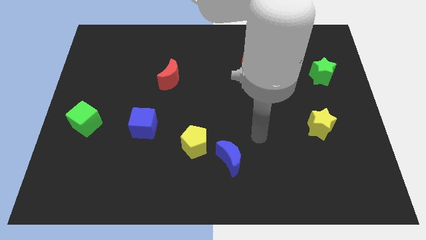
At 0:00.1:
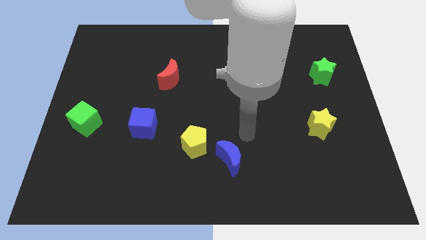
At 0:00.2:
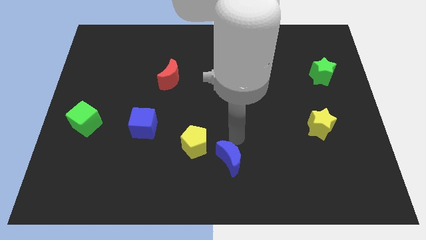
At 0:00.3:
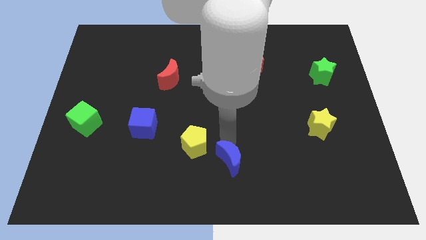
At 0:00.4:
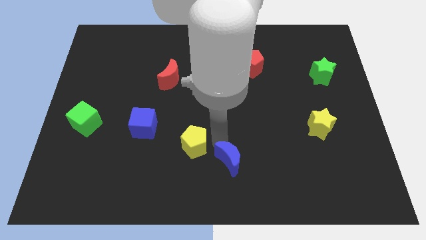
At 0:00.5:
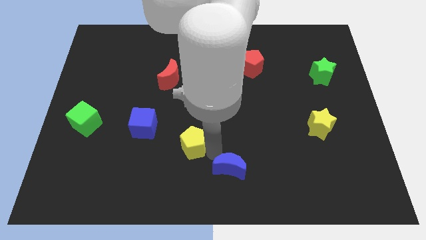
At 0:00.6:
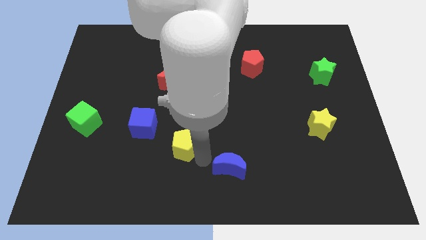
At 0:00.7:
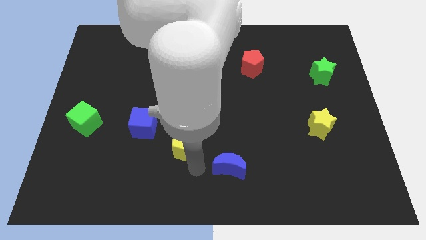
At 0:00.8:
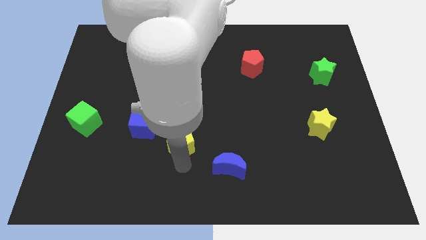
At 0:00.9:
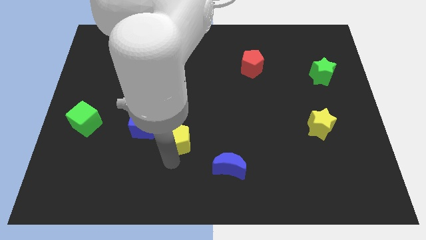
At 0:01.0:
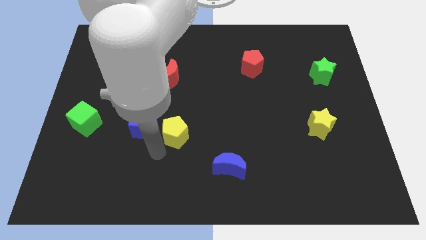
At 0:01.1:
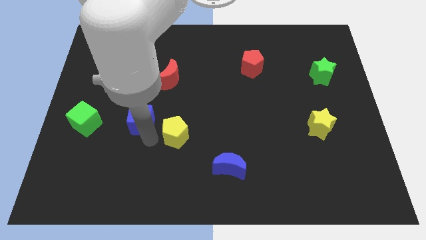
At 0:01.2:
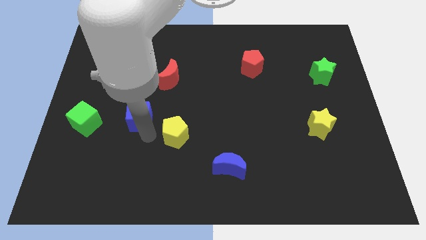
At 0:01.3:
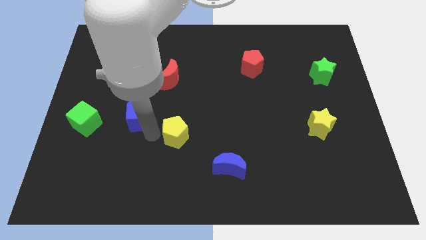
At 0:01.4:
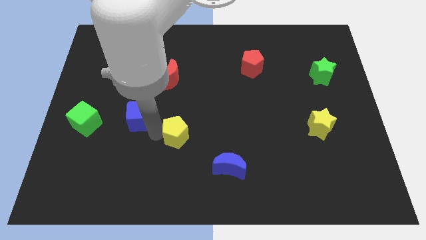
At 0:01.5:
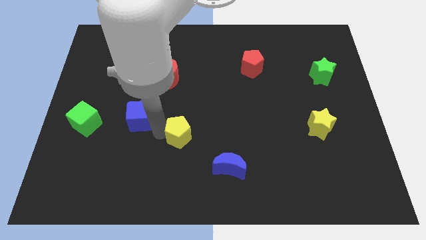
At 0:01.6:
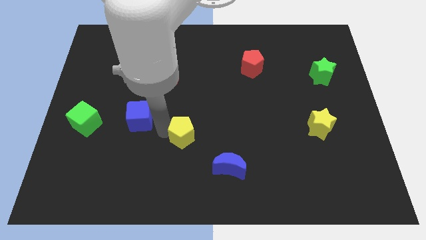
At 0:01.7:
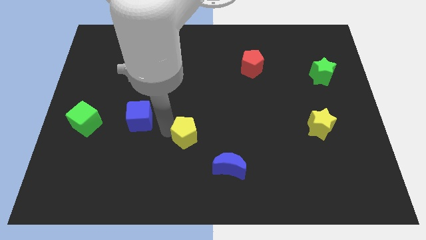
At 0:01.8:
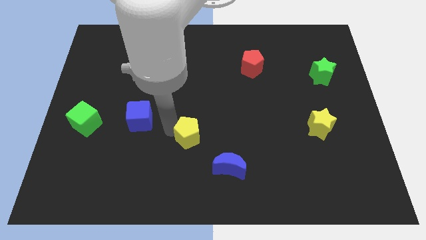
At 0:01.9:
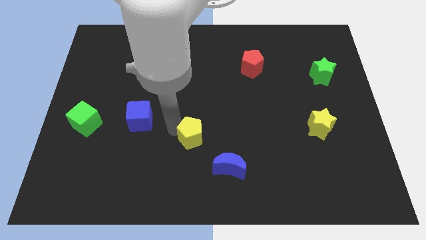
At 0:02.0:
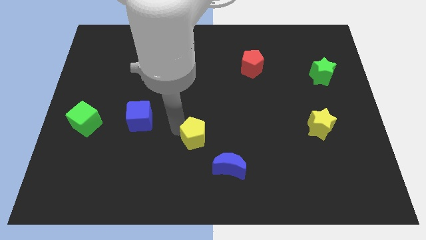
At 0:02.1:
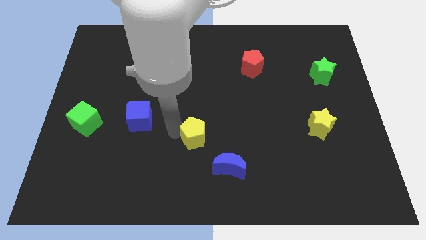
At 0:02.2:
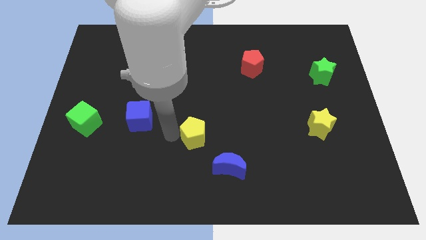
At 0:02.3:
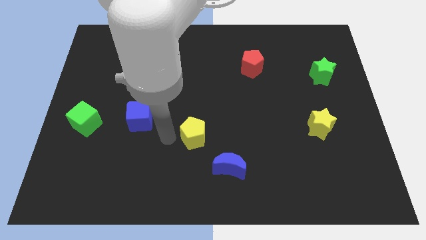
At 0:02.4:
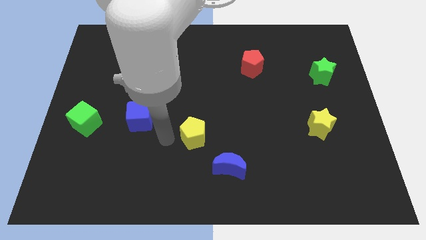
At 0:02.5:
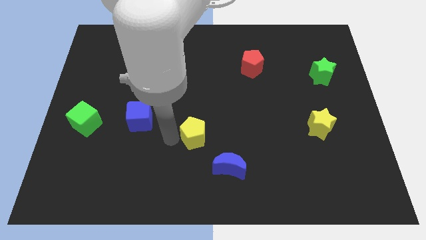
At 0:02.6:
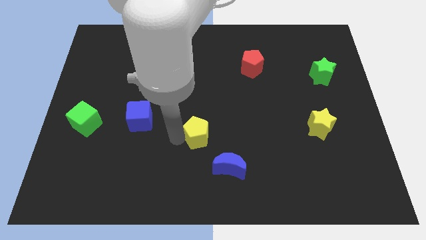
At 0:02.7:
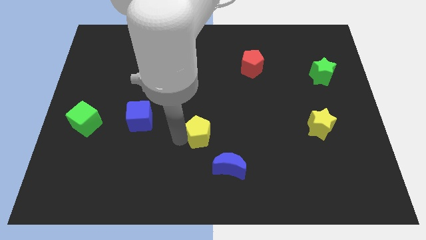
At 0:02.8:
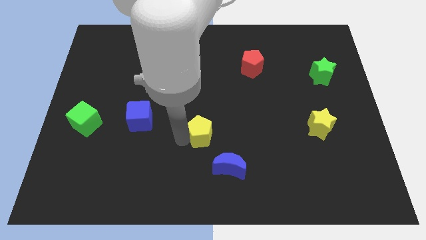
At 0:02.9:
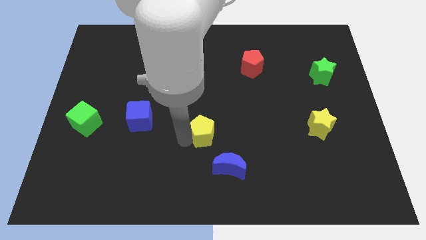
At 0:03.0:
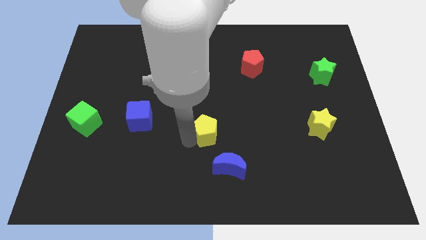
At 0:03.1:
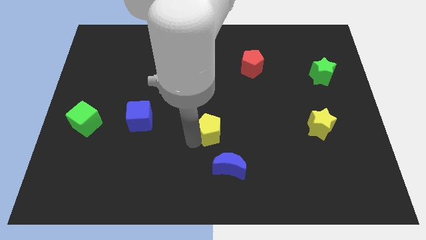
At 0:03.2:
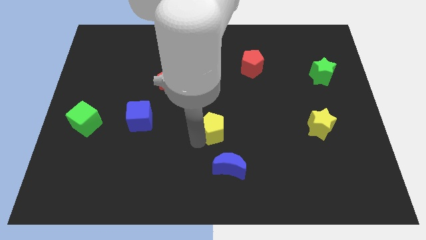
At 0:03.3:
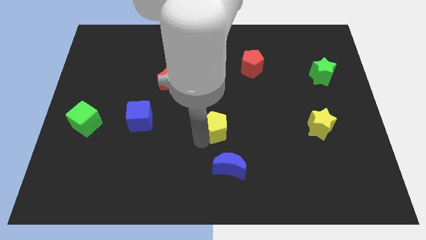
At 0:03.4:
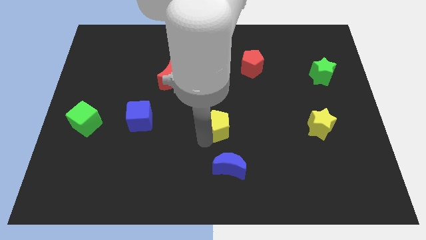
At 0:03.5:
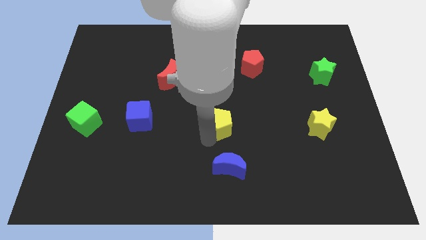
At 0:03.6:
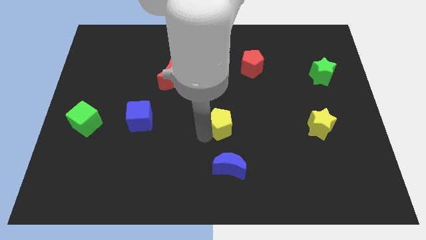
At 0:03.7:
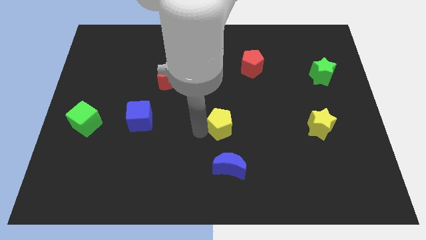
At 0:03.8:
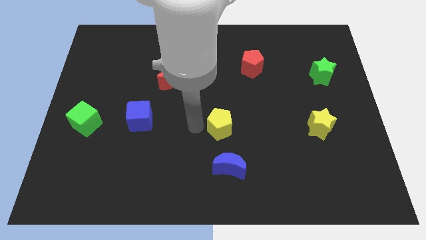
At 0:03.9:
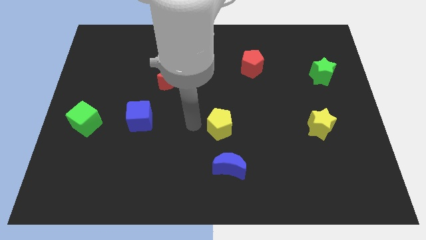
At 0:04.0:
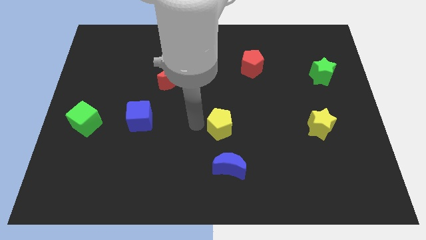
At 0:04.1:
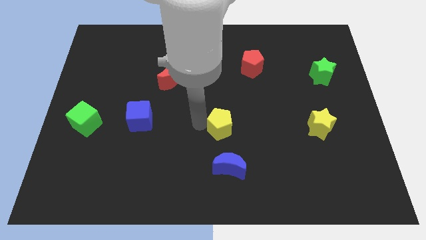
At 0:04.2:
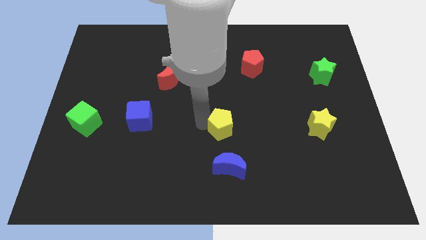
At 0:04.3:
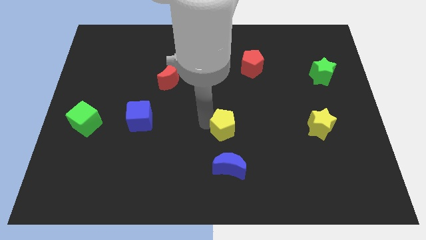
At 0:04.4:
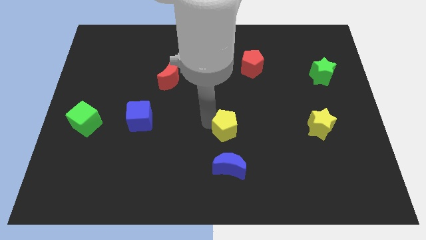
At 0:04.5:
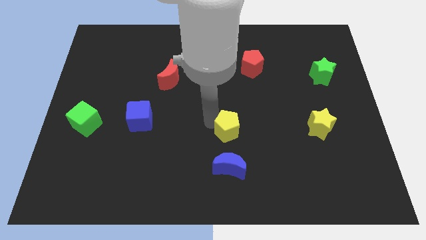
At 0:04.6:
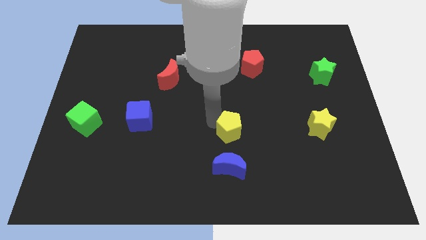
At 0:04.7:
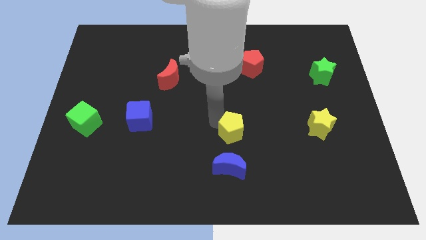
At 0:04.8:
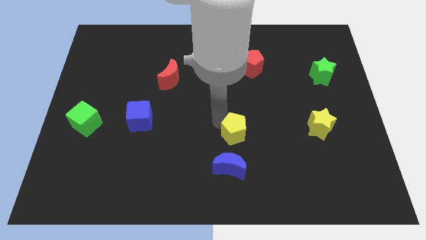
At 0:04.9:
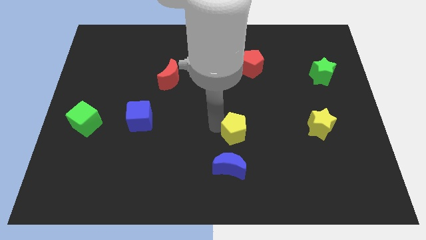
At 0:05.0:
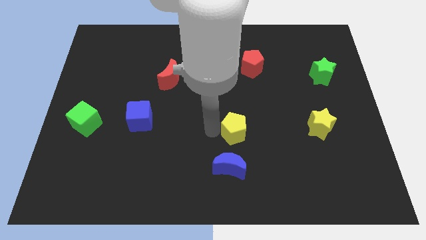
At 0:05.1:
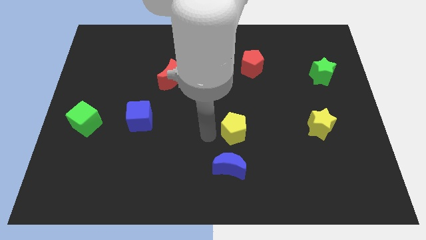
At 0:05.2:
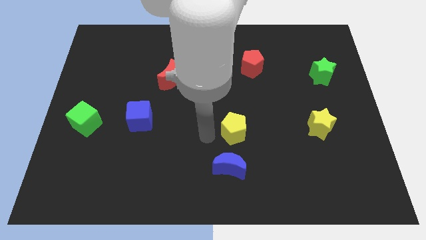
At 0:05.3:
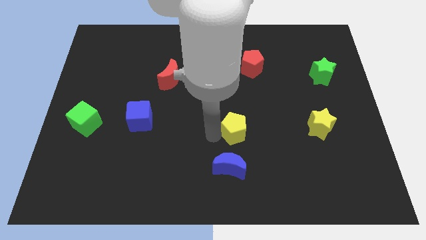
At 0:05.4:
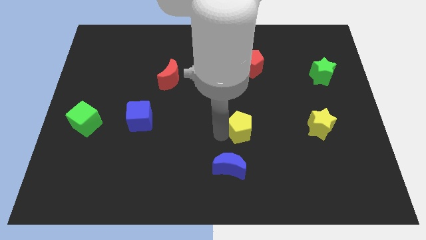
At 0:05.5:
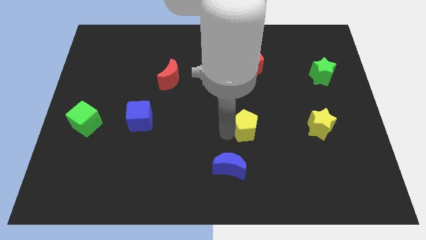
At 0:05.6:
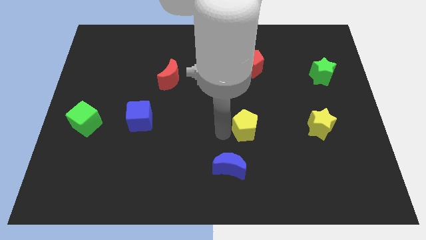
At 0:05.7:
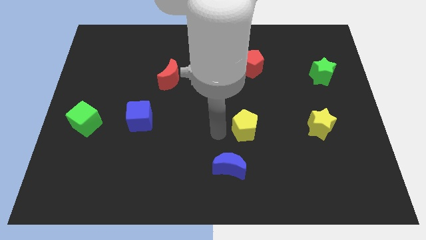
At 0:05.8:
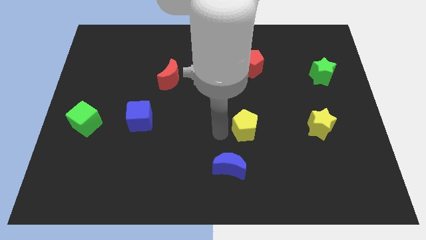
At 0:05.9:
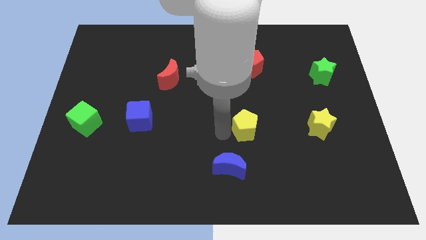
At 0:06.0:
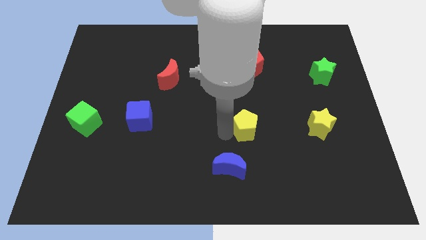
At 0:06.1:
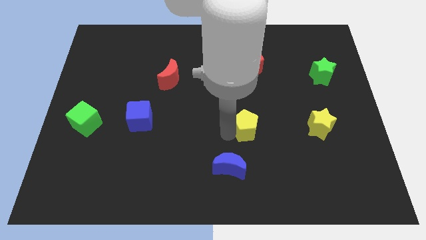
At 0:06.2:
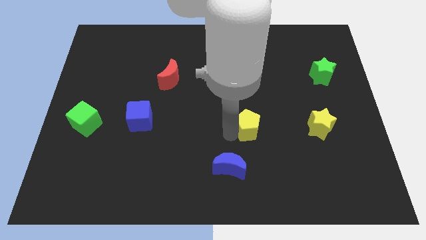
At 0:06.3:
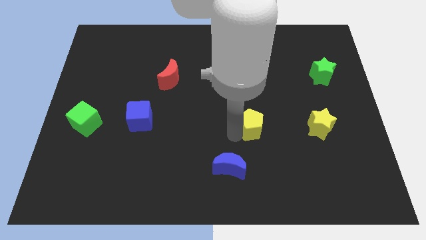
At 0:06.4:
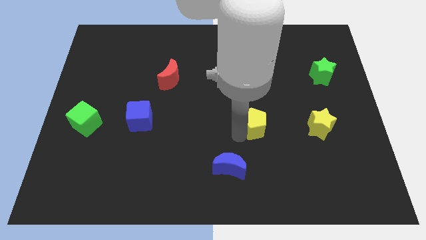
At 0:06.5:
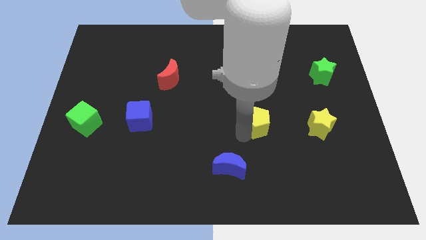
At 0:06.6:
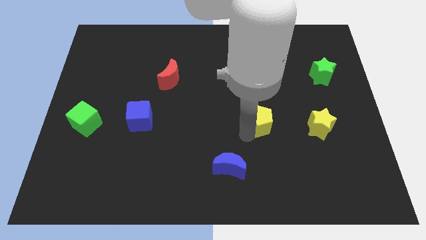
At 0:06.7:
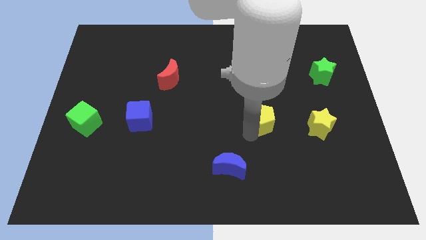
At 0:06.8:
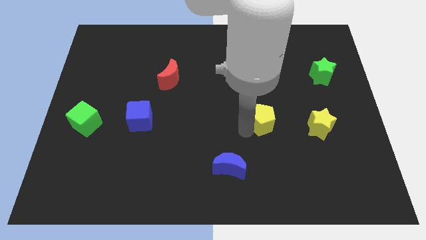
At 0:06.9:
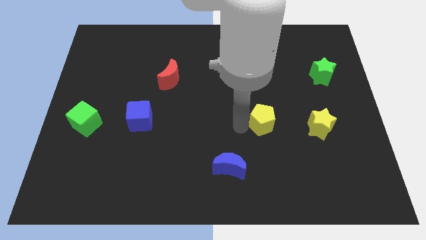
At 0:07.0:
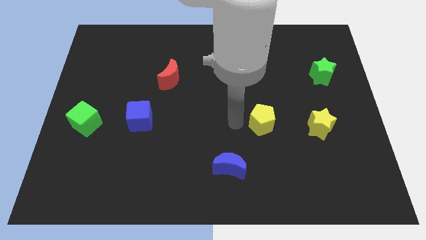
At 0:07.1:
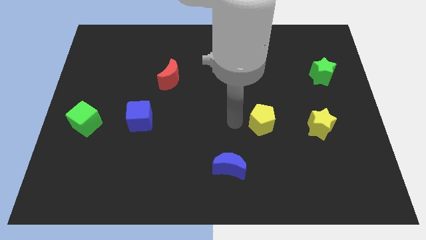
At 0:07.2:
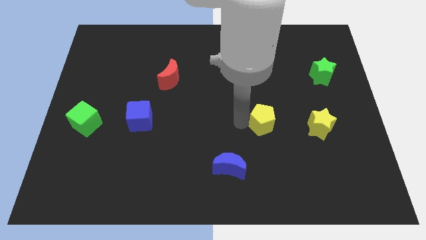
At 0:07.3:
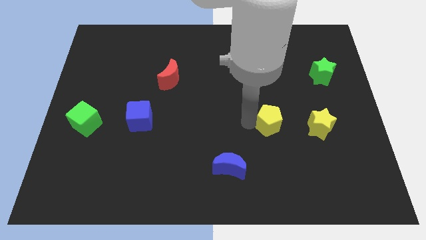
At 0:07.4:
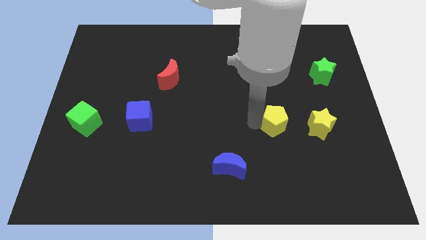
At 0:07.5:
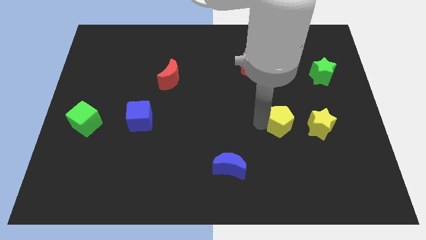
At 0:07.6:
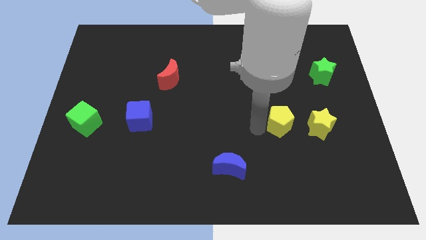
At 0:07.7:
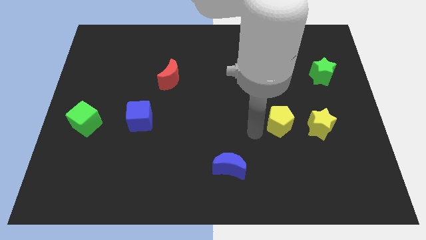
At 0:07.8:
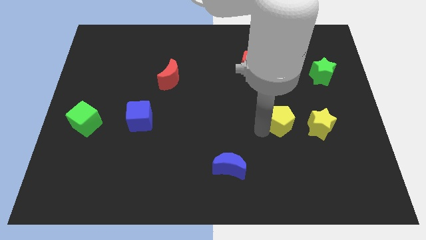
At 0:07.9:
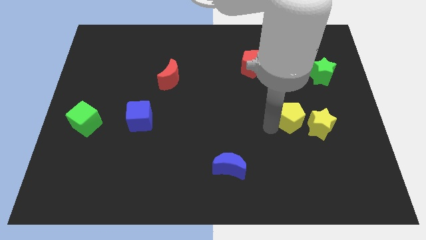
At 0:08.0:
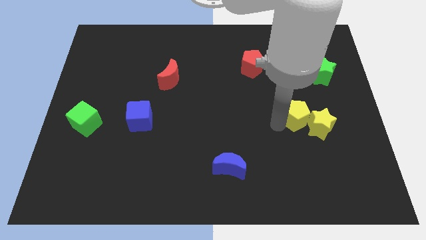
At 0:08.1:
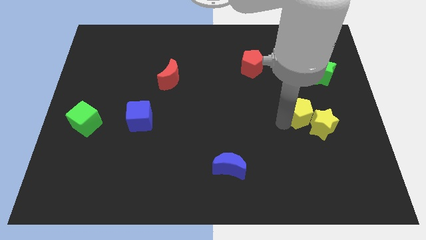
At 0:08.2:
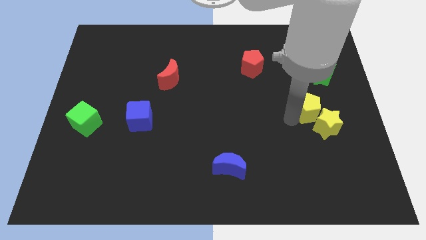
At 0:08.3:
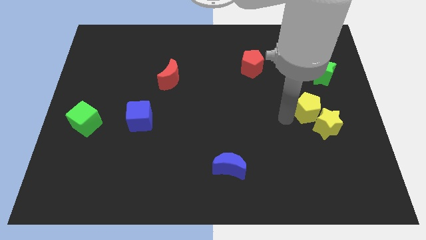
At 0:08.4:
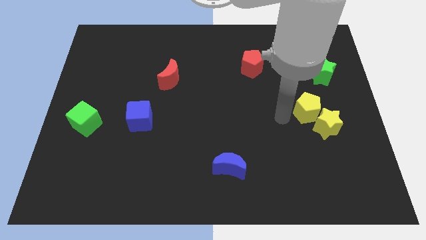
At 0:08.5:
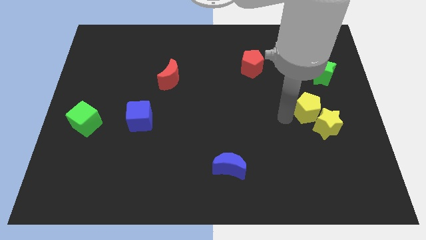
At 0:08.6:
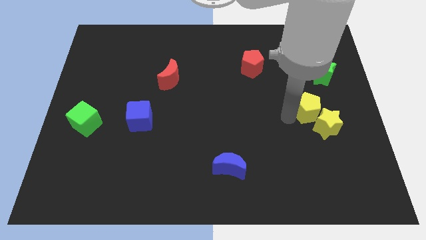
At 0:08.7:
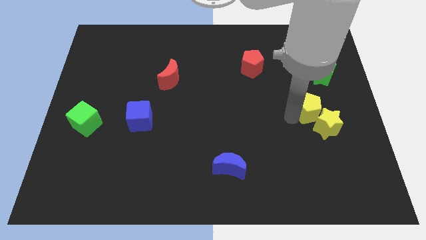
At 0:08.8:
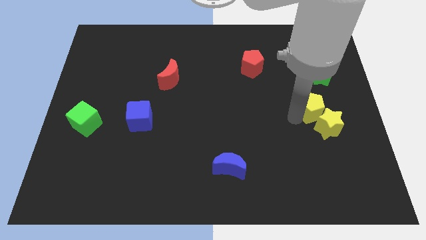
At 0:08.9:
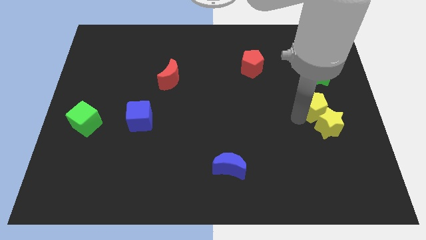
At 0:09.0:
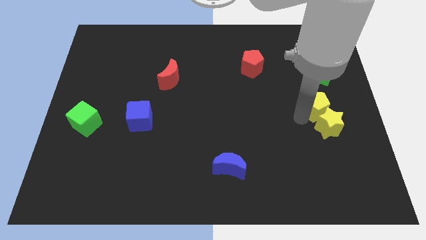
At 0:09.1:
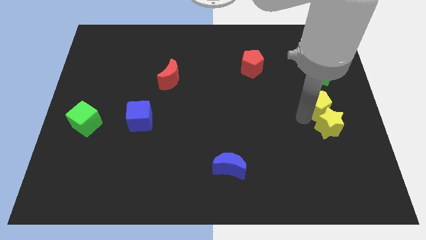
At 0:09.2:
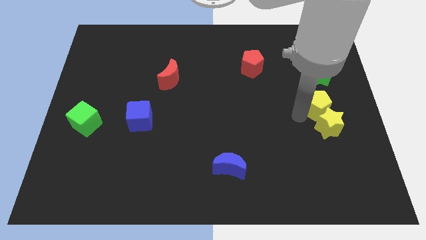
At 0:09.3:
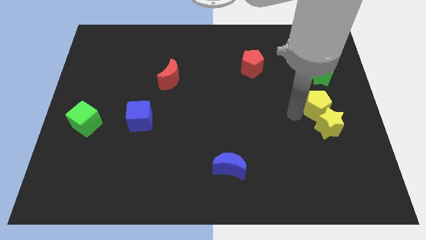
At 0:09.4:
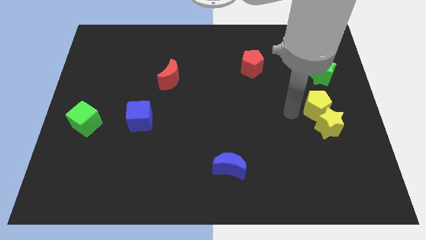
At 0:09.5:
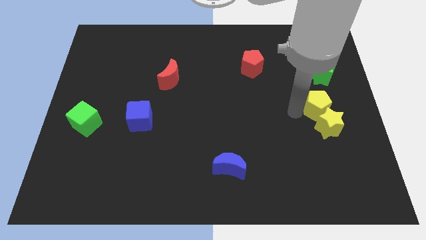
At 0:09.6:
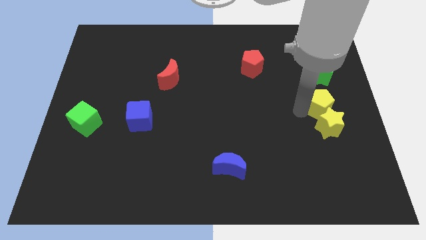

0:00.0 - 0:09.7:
slide the yellow pentagon to the center right
